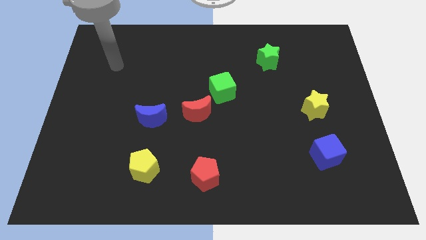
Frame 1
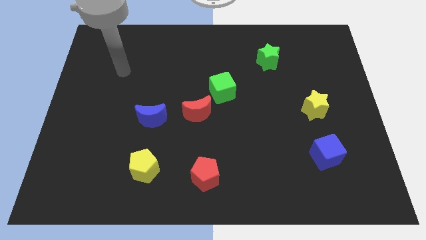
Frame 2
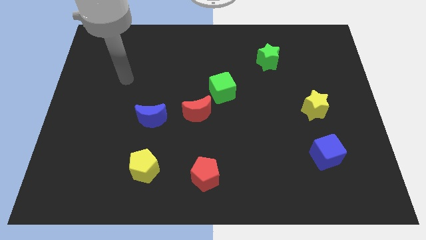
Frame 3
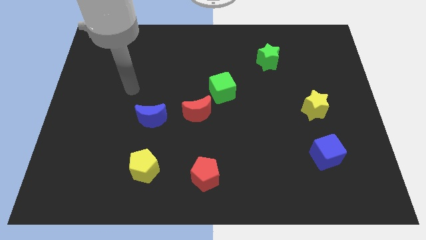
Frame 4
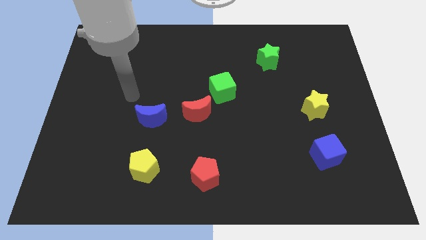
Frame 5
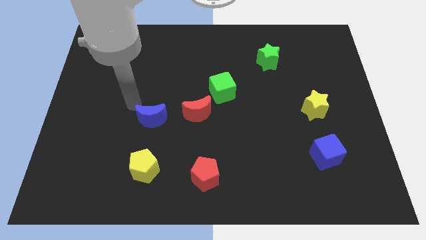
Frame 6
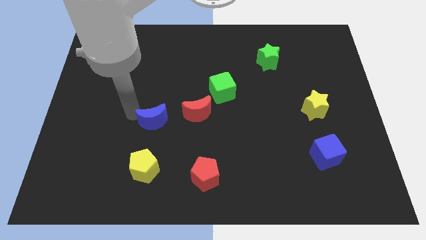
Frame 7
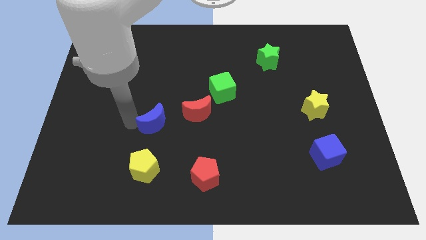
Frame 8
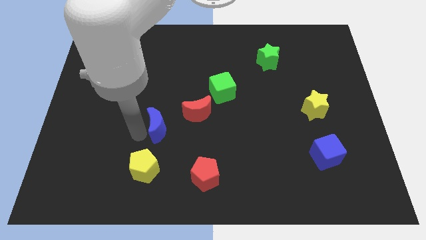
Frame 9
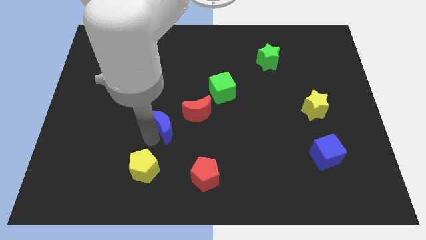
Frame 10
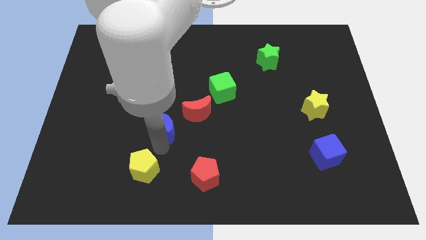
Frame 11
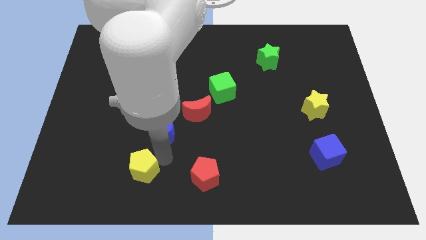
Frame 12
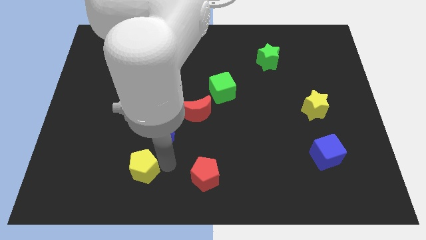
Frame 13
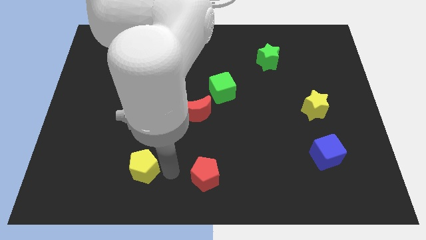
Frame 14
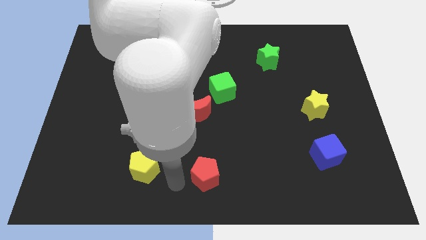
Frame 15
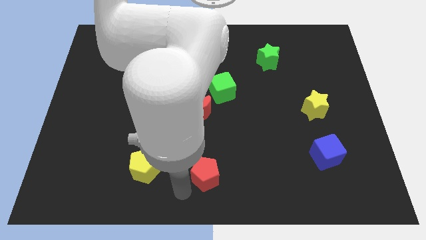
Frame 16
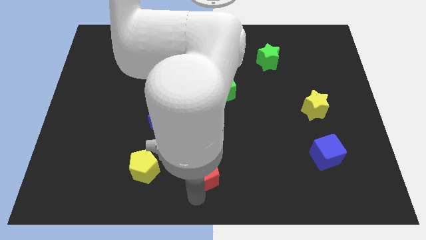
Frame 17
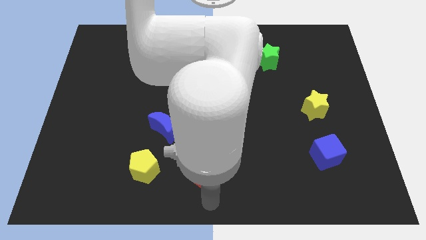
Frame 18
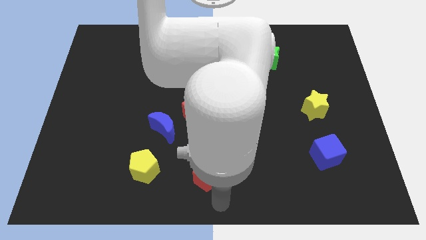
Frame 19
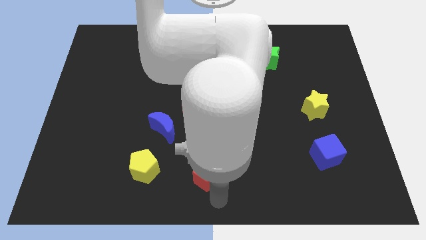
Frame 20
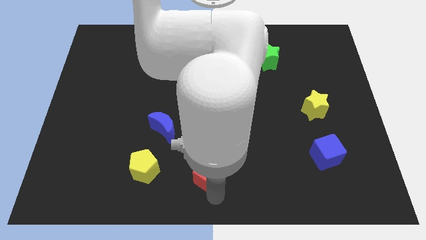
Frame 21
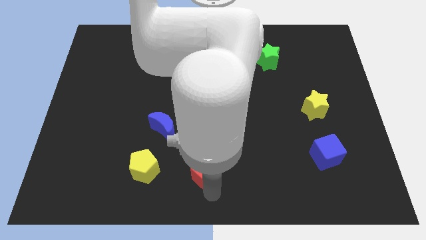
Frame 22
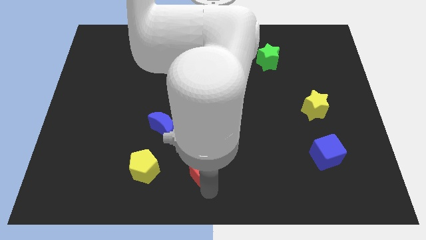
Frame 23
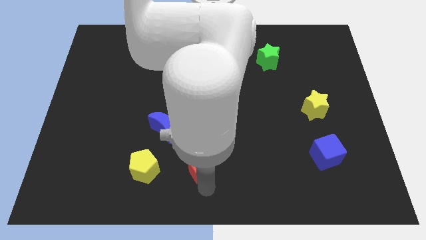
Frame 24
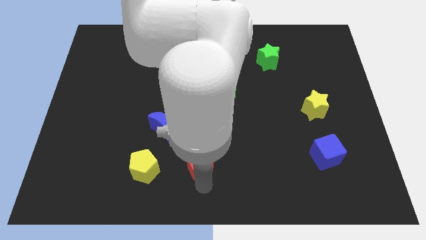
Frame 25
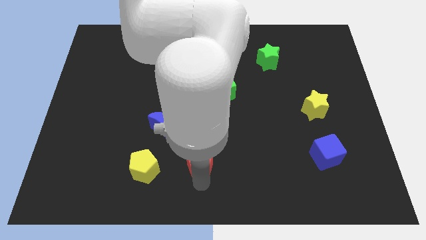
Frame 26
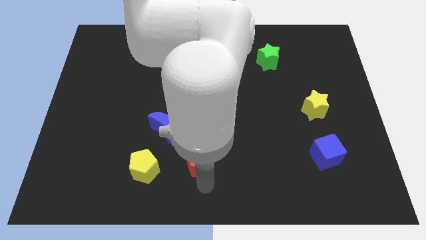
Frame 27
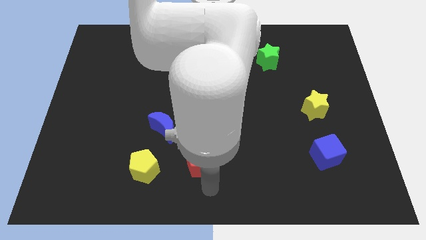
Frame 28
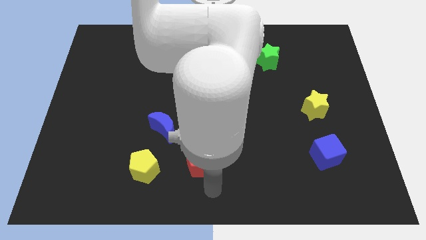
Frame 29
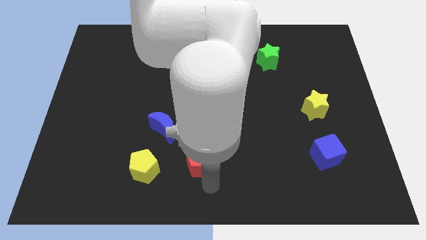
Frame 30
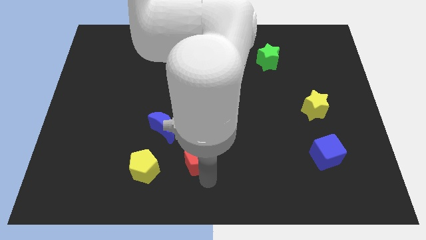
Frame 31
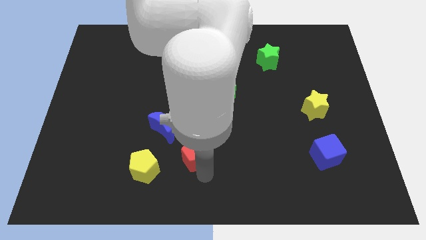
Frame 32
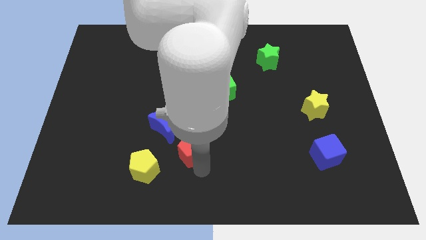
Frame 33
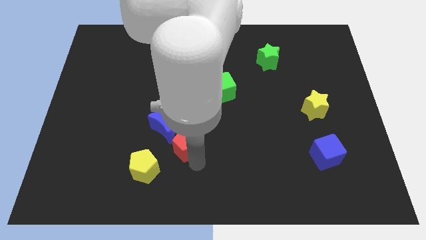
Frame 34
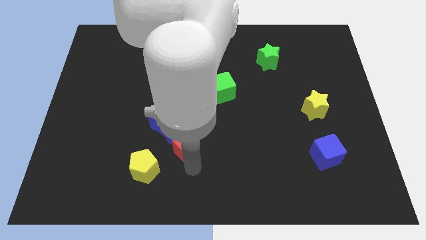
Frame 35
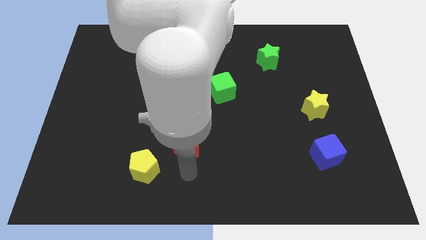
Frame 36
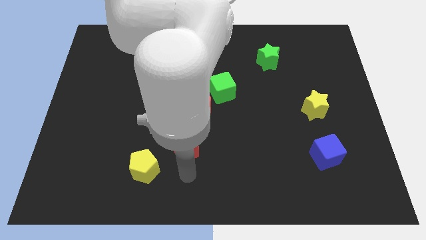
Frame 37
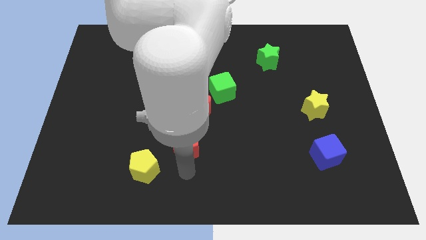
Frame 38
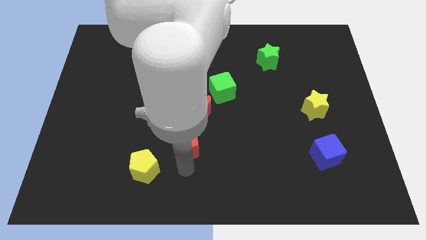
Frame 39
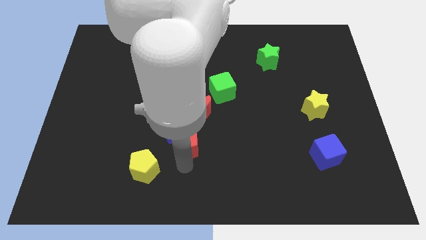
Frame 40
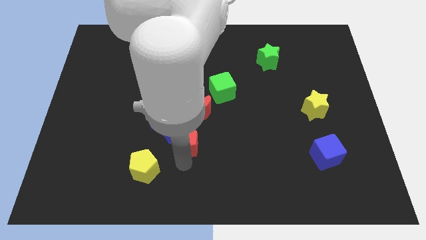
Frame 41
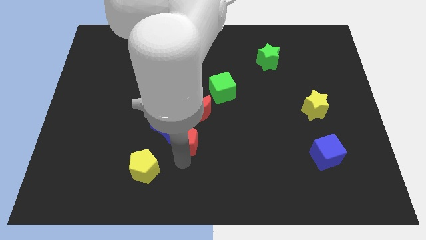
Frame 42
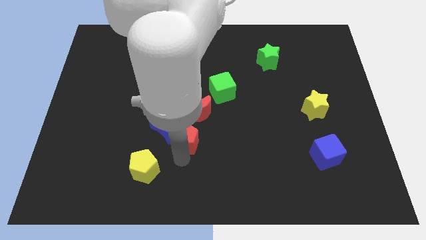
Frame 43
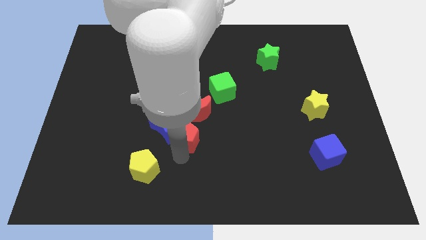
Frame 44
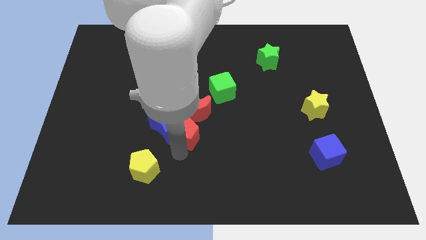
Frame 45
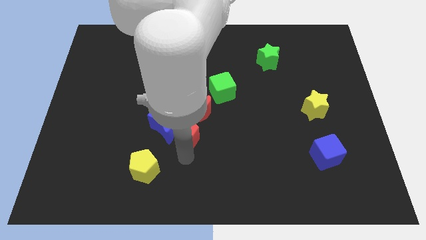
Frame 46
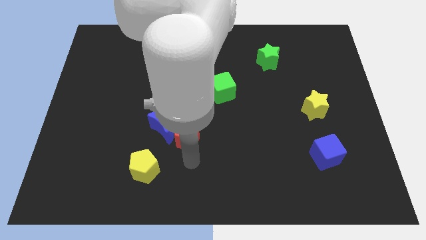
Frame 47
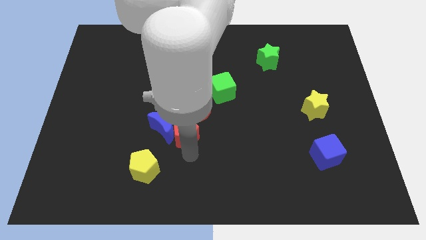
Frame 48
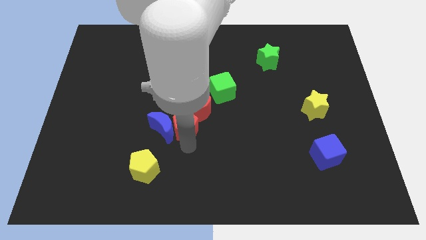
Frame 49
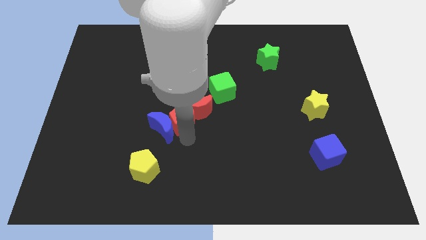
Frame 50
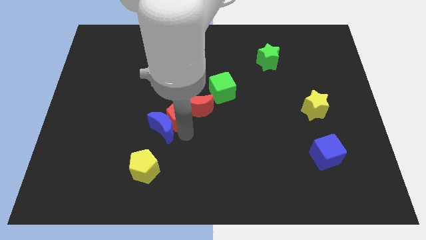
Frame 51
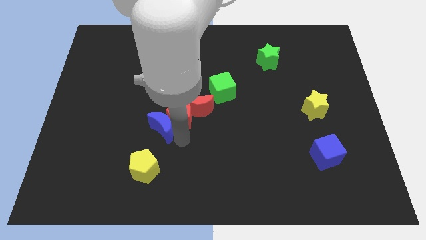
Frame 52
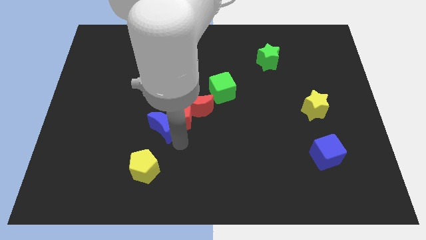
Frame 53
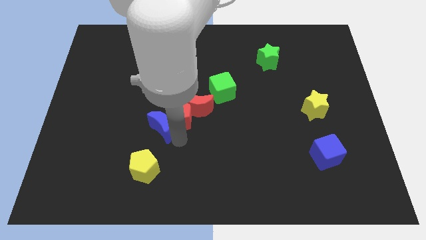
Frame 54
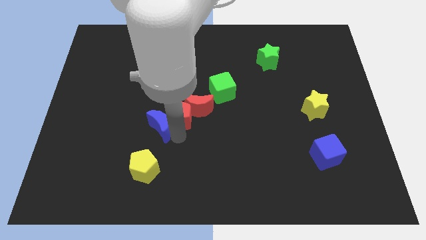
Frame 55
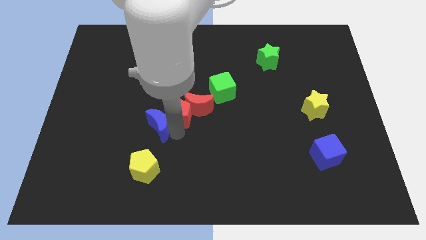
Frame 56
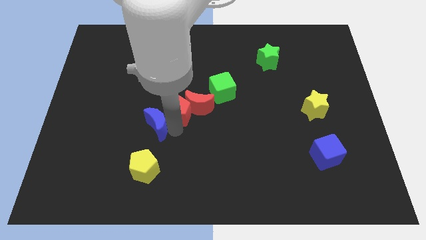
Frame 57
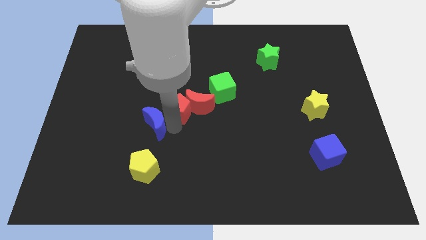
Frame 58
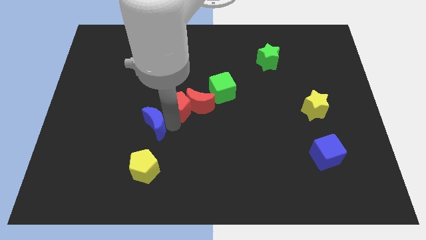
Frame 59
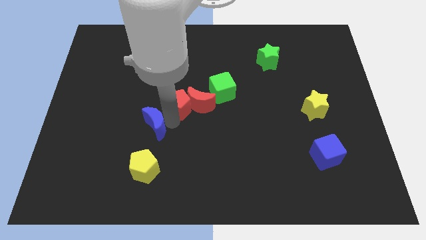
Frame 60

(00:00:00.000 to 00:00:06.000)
slide the red pentagon just left of the green cube

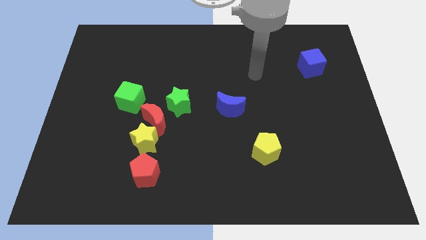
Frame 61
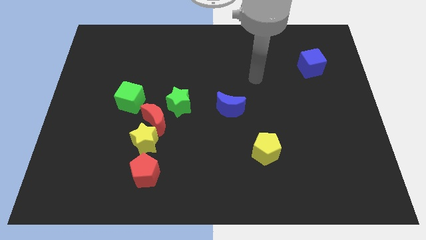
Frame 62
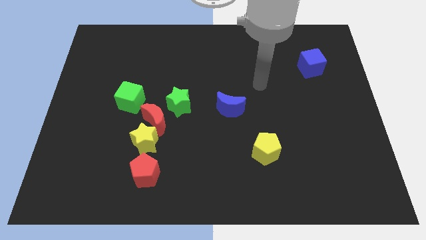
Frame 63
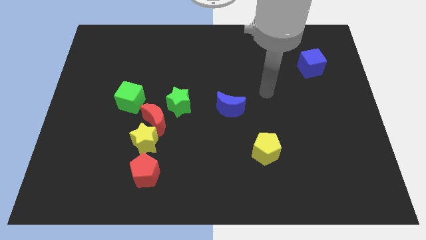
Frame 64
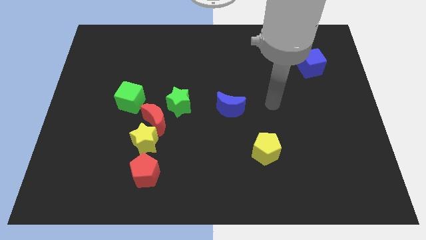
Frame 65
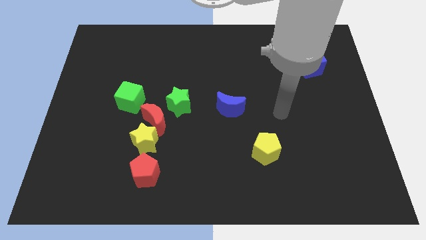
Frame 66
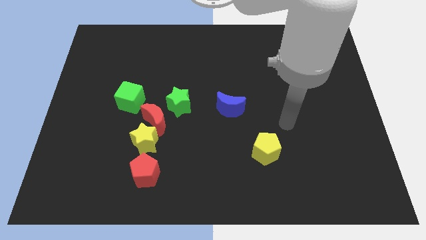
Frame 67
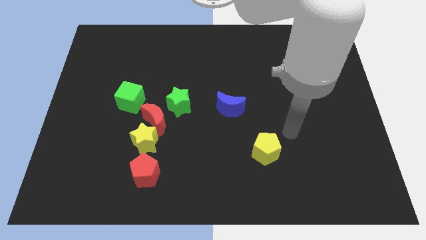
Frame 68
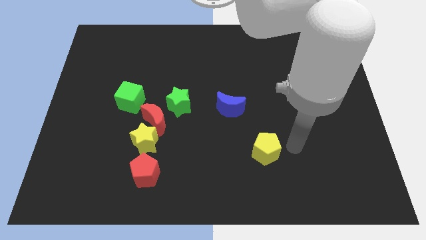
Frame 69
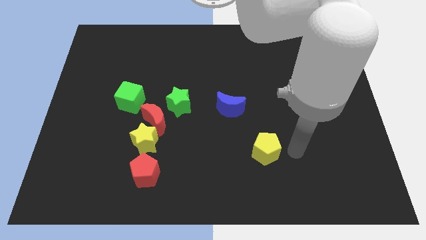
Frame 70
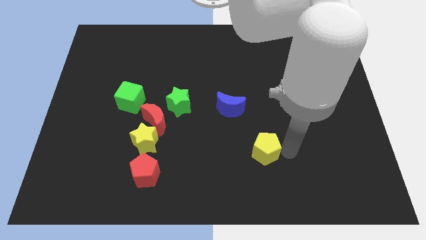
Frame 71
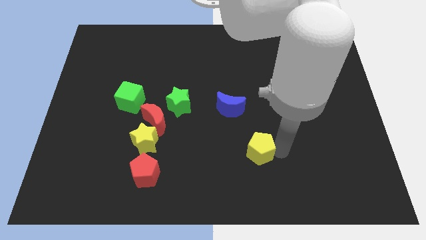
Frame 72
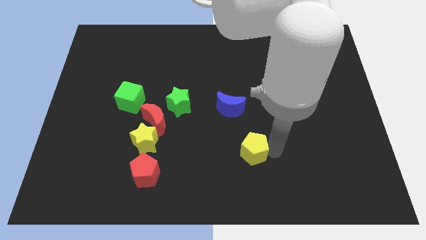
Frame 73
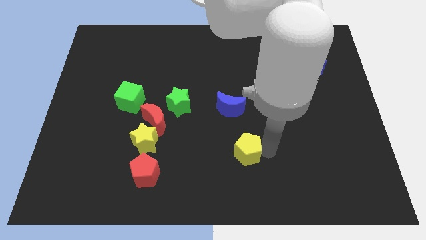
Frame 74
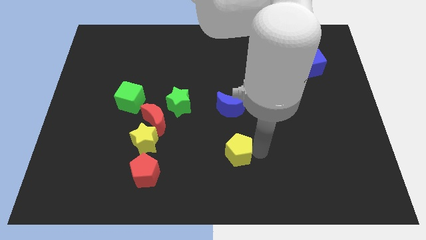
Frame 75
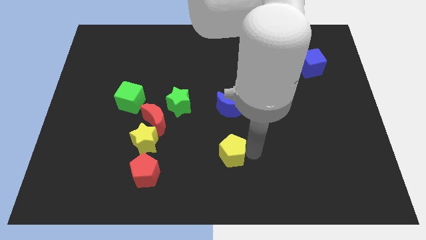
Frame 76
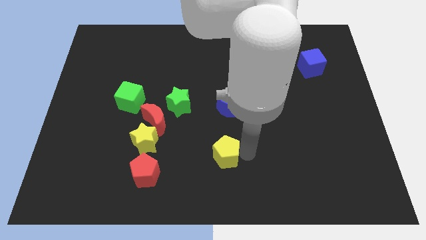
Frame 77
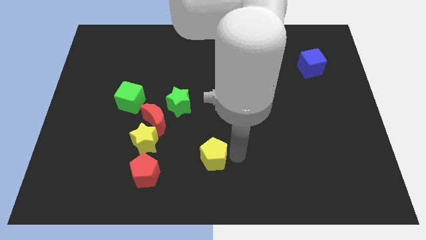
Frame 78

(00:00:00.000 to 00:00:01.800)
put the yellow pentagon right of the yellow star
